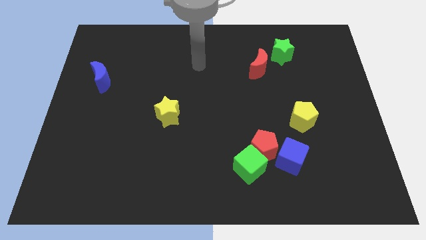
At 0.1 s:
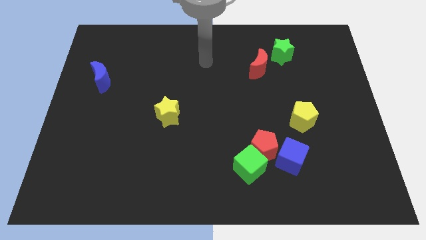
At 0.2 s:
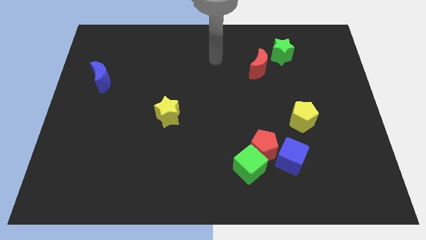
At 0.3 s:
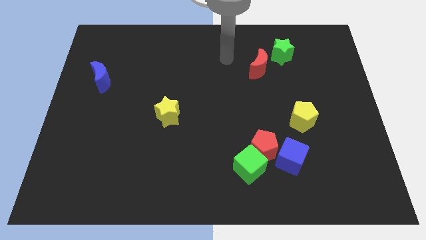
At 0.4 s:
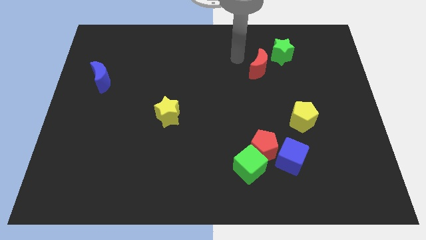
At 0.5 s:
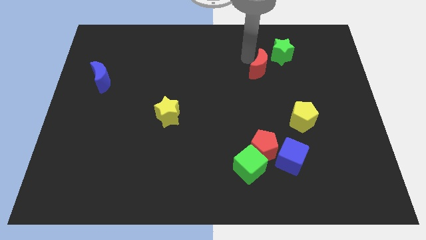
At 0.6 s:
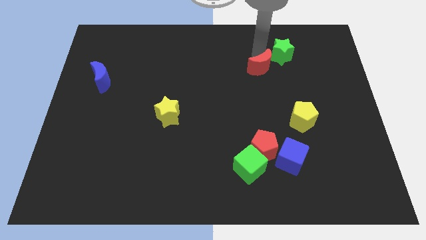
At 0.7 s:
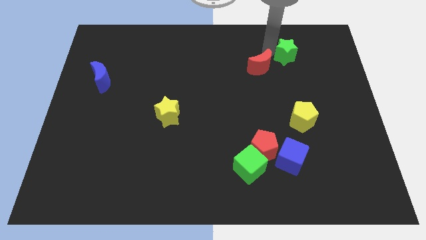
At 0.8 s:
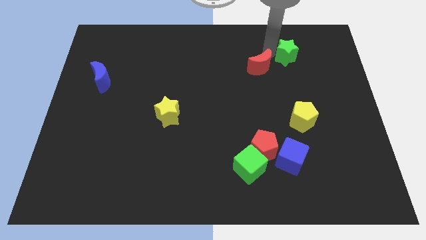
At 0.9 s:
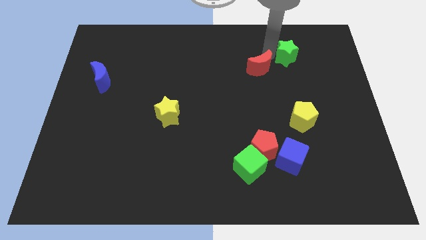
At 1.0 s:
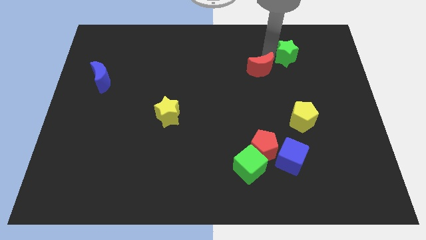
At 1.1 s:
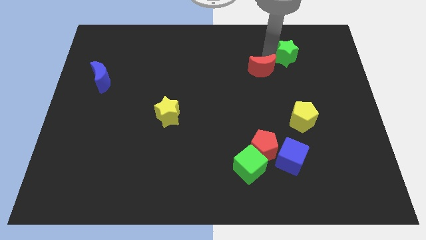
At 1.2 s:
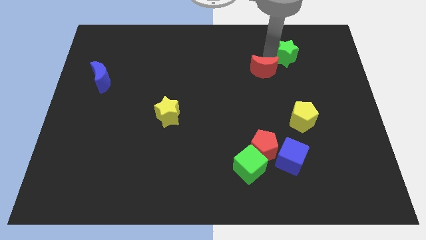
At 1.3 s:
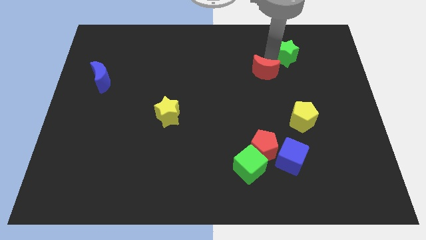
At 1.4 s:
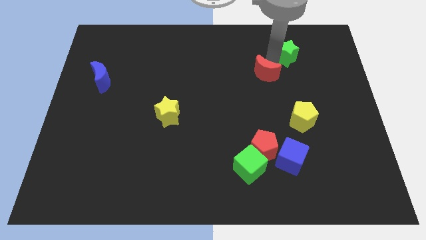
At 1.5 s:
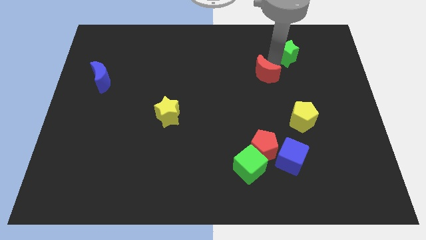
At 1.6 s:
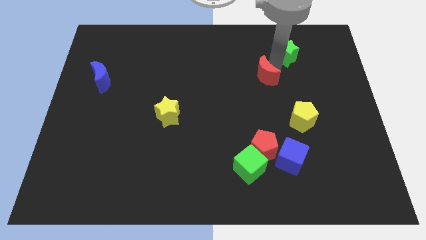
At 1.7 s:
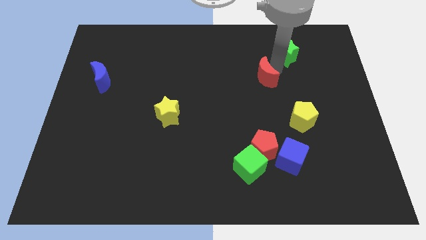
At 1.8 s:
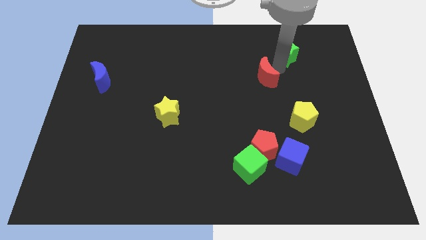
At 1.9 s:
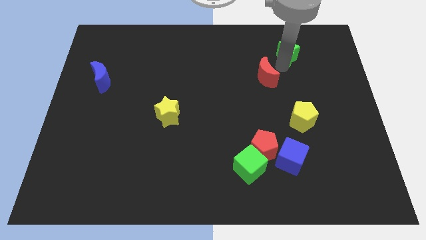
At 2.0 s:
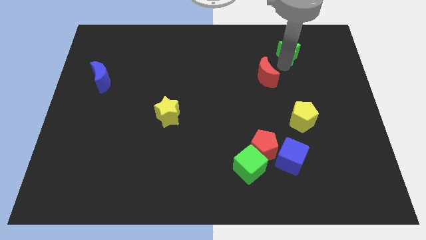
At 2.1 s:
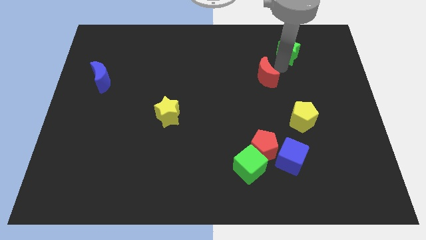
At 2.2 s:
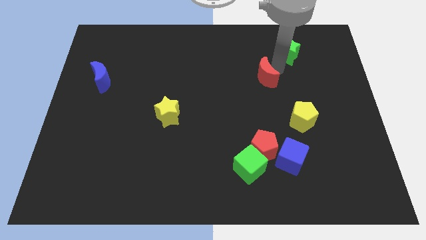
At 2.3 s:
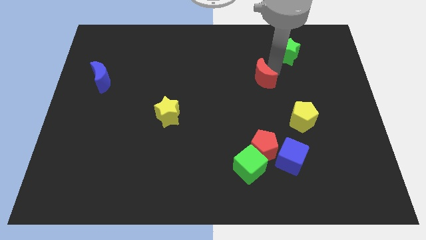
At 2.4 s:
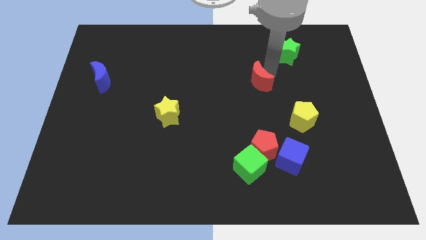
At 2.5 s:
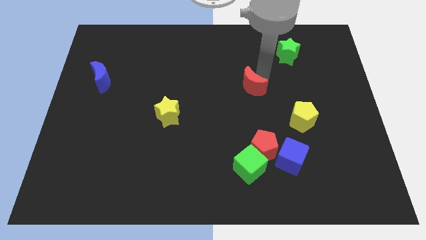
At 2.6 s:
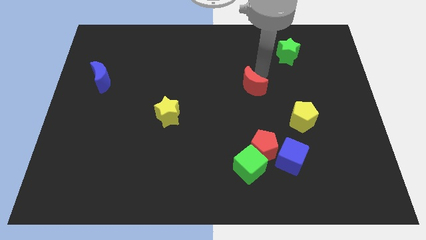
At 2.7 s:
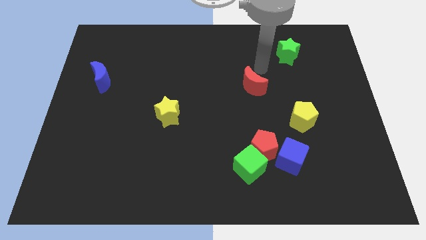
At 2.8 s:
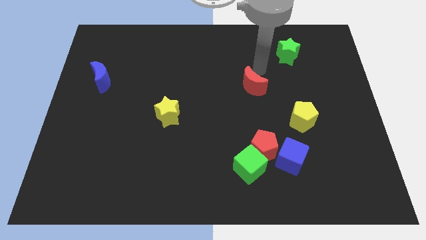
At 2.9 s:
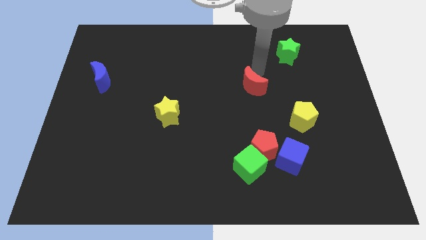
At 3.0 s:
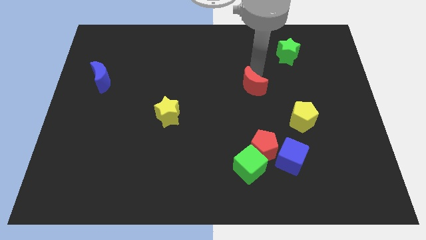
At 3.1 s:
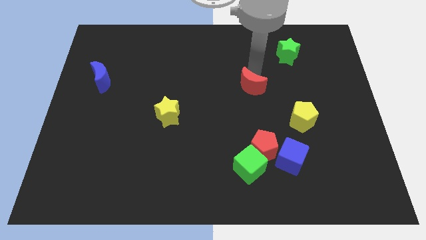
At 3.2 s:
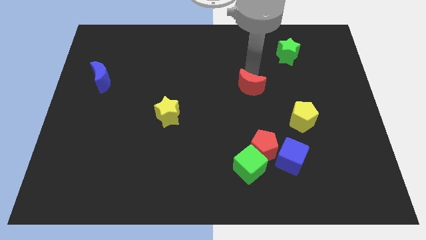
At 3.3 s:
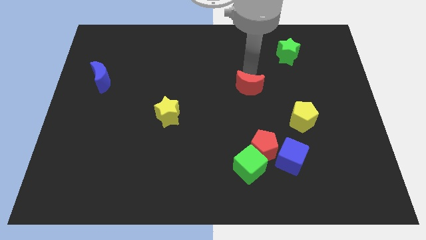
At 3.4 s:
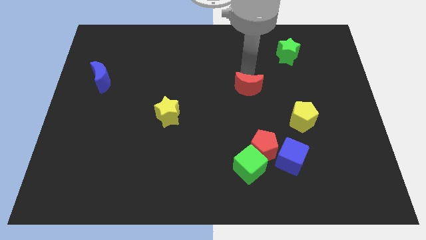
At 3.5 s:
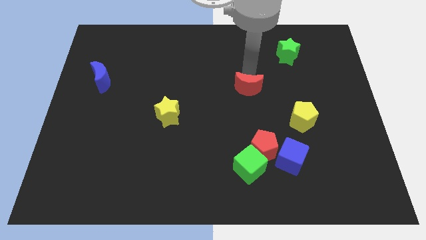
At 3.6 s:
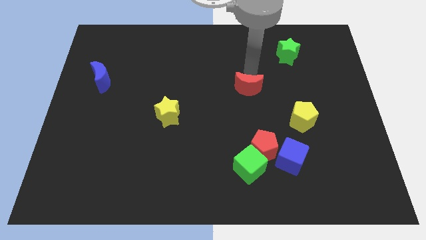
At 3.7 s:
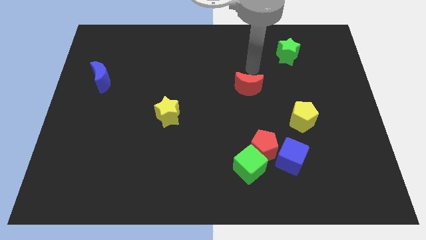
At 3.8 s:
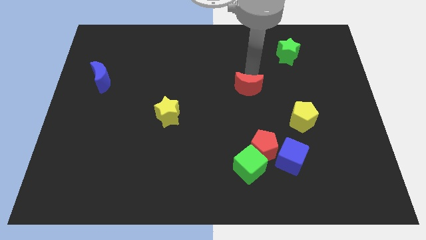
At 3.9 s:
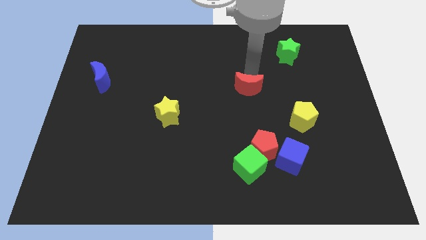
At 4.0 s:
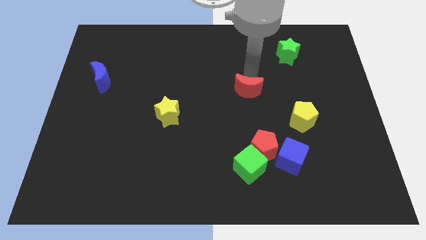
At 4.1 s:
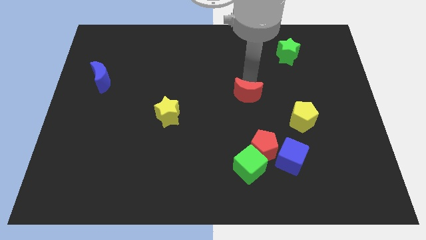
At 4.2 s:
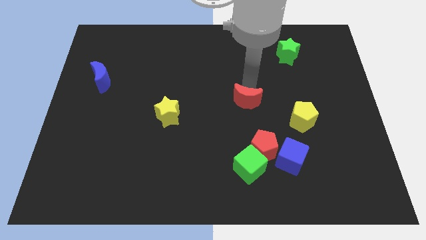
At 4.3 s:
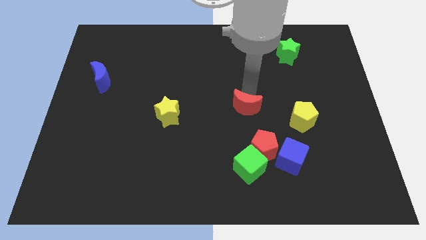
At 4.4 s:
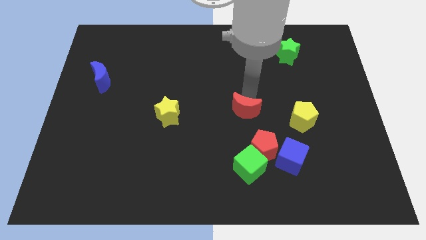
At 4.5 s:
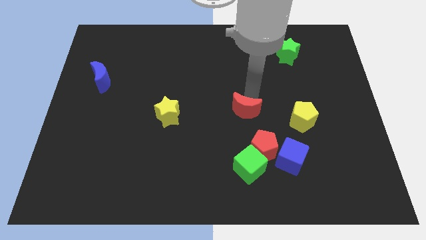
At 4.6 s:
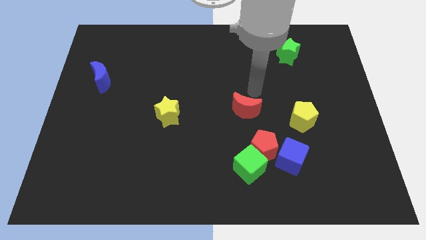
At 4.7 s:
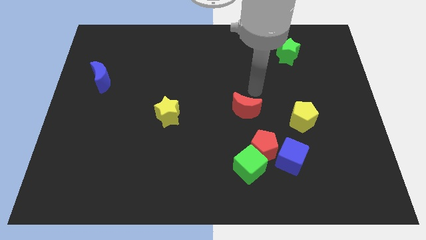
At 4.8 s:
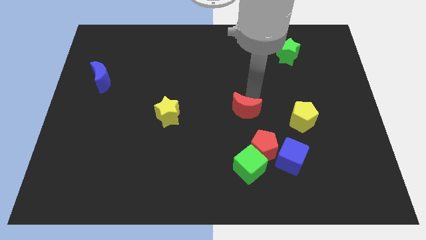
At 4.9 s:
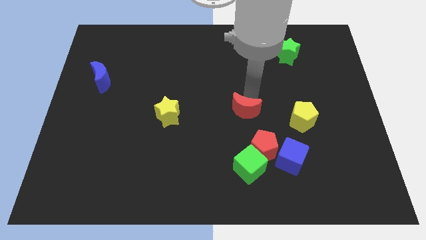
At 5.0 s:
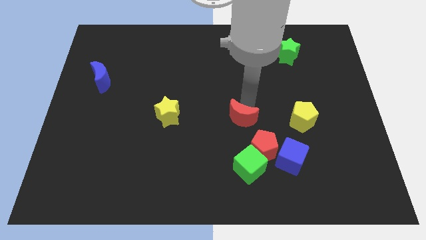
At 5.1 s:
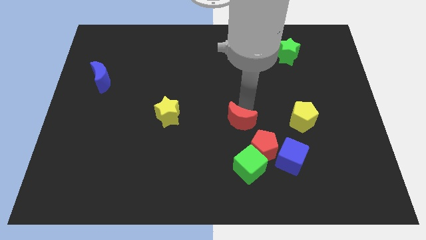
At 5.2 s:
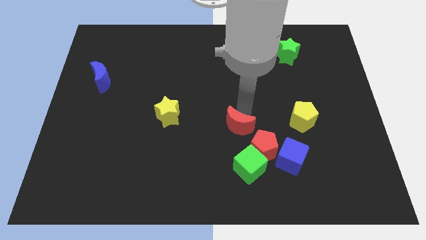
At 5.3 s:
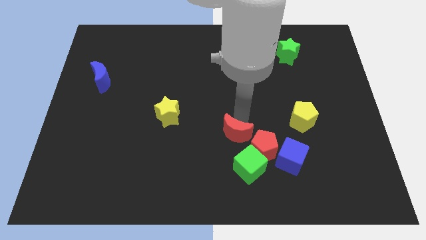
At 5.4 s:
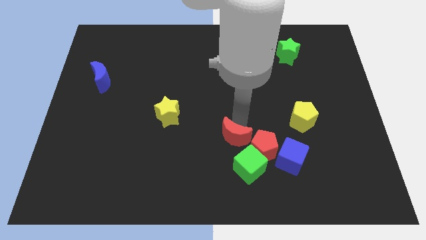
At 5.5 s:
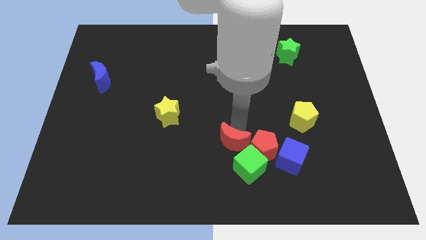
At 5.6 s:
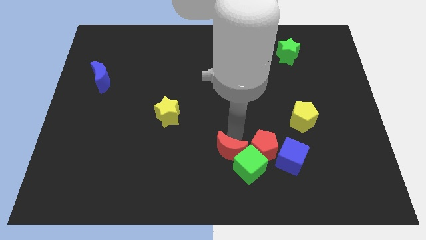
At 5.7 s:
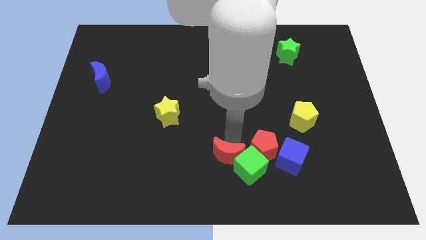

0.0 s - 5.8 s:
push the red moon to the bottom

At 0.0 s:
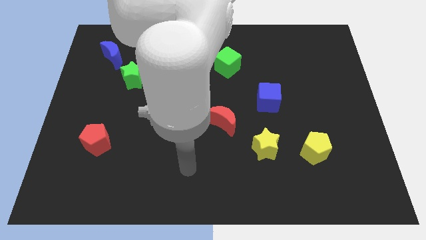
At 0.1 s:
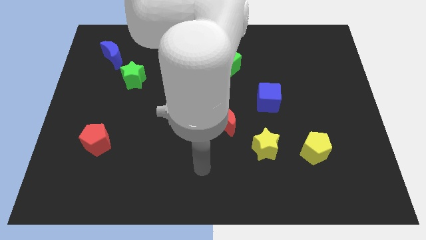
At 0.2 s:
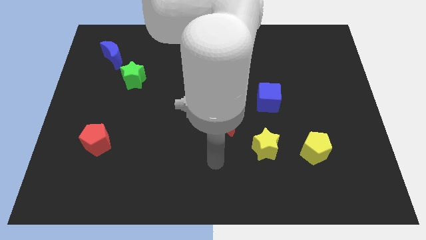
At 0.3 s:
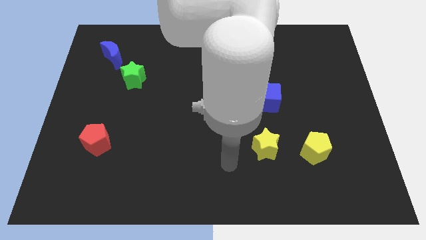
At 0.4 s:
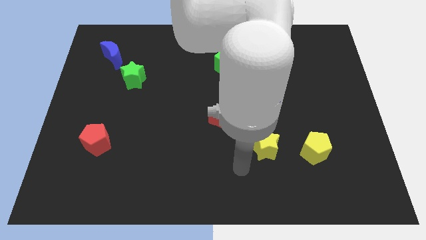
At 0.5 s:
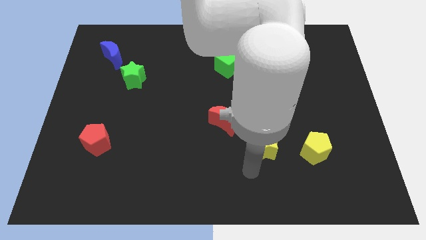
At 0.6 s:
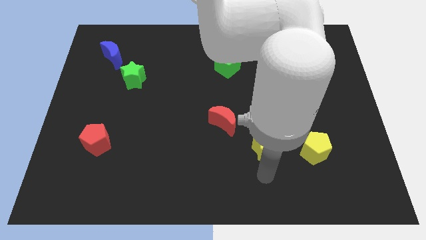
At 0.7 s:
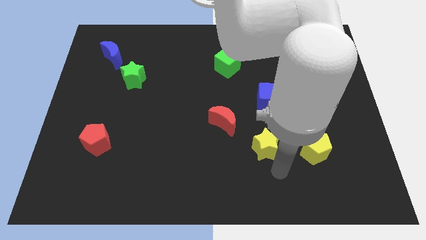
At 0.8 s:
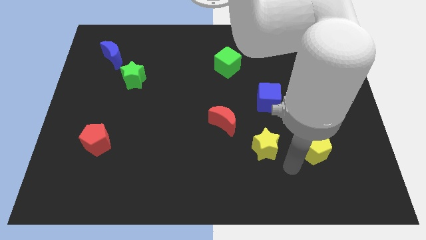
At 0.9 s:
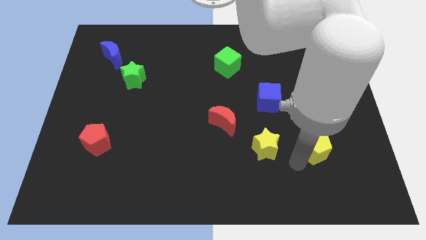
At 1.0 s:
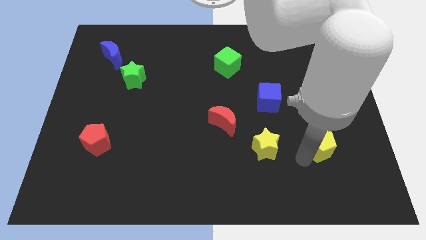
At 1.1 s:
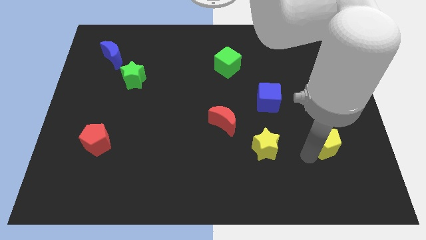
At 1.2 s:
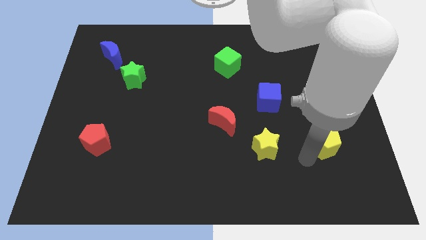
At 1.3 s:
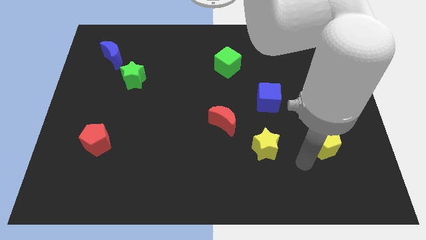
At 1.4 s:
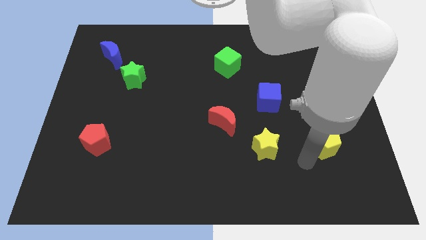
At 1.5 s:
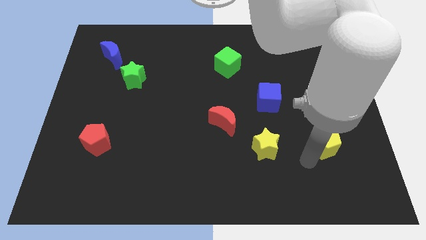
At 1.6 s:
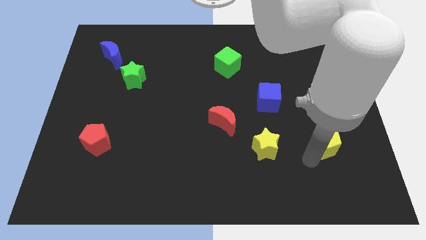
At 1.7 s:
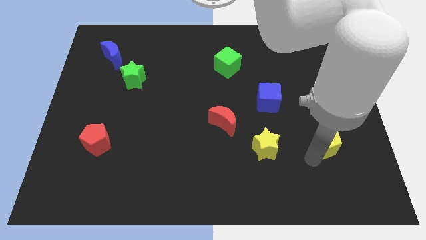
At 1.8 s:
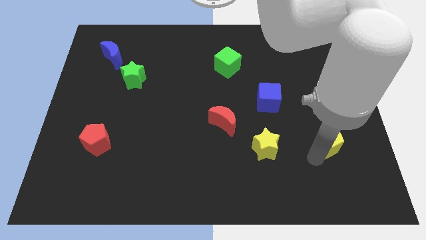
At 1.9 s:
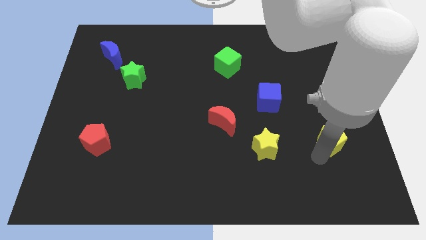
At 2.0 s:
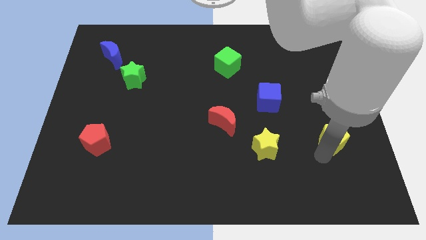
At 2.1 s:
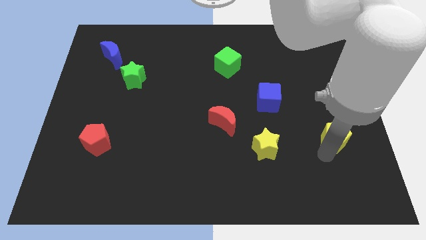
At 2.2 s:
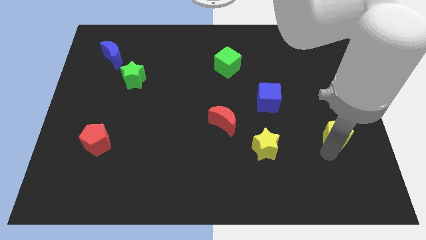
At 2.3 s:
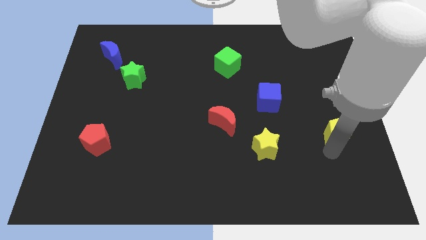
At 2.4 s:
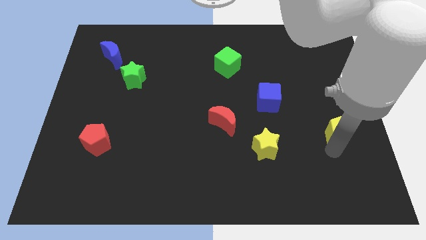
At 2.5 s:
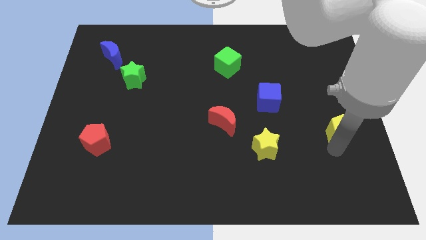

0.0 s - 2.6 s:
slide the yellow pentagon to the right side of the board
